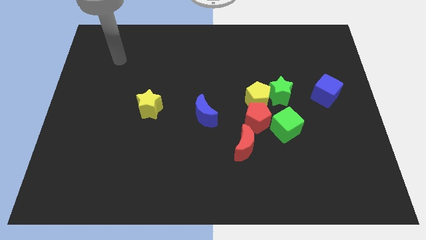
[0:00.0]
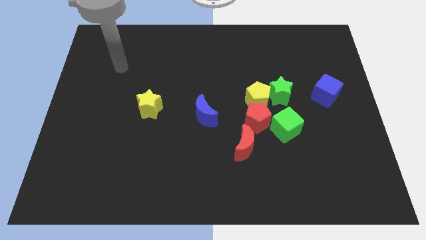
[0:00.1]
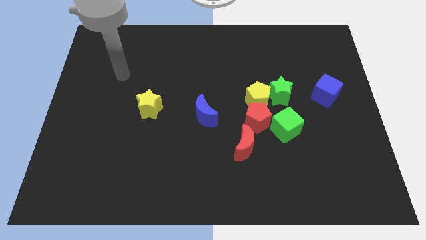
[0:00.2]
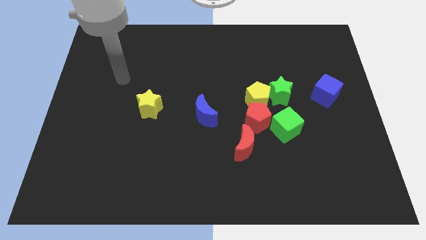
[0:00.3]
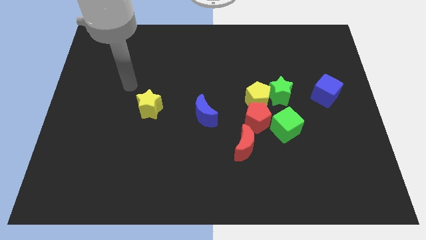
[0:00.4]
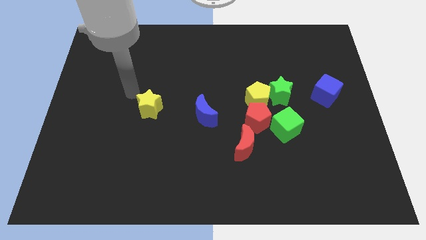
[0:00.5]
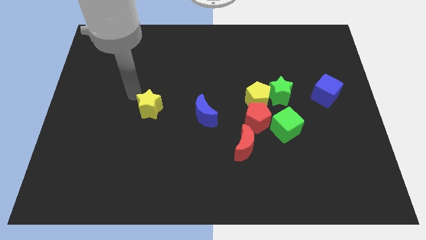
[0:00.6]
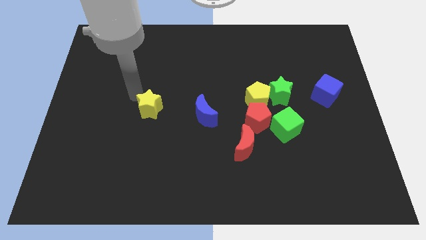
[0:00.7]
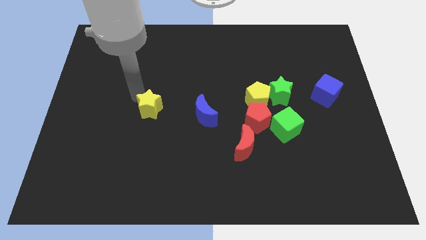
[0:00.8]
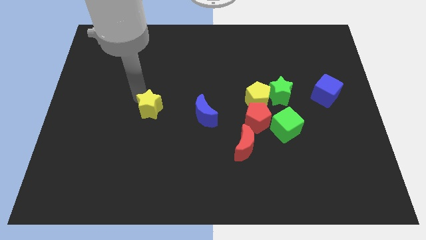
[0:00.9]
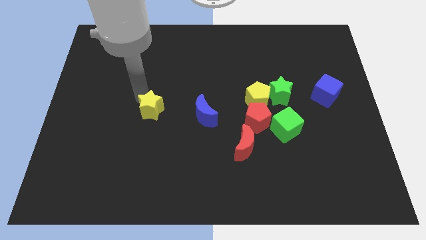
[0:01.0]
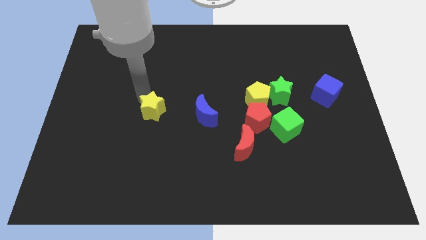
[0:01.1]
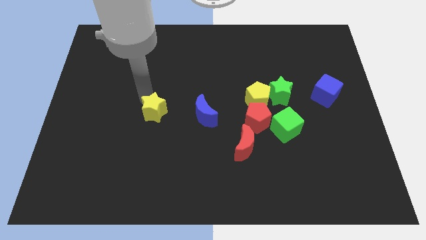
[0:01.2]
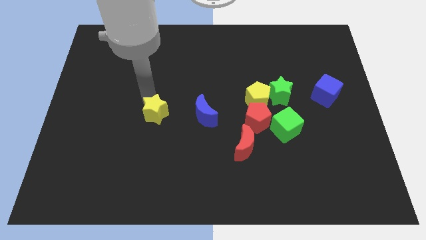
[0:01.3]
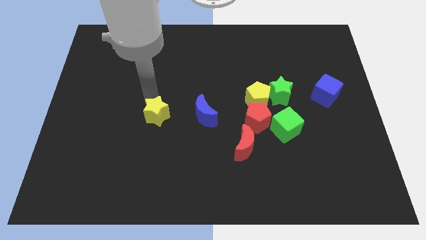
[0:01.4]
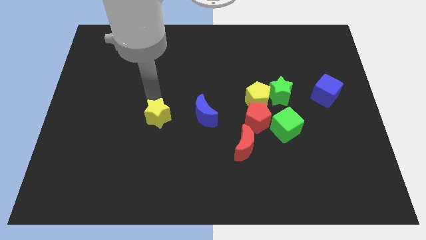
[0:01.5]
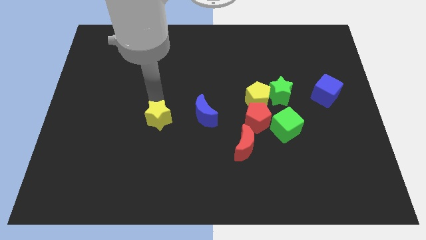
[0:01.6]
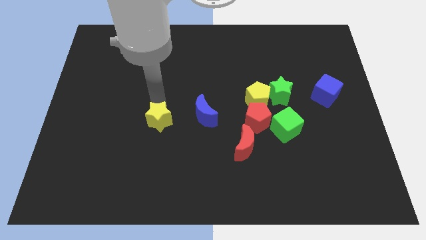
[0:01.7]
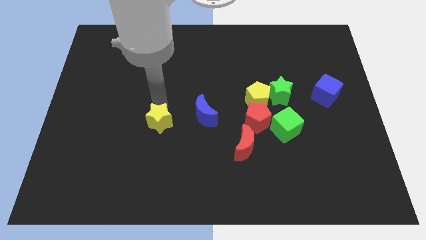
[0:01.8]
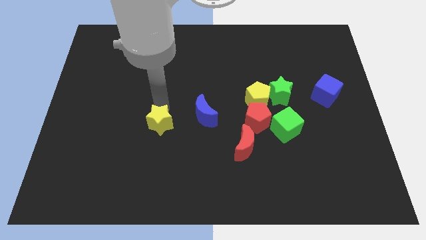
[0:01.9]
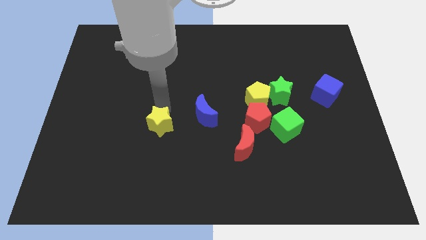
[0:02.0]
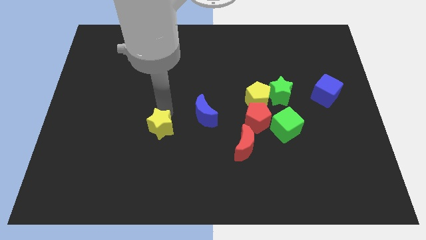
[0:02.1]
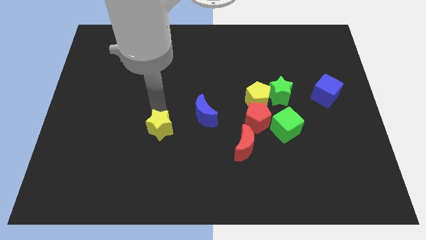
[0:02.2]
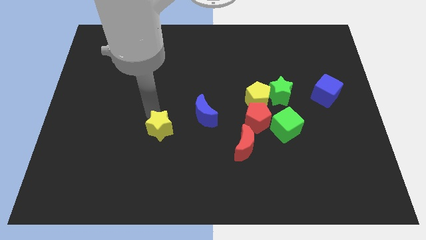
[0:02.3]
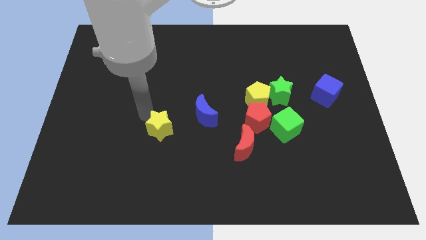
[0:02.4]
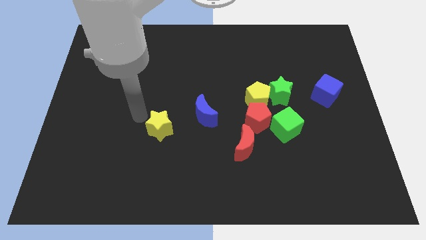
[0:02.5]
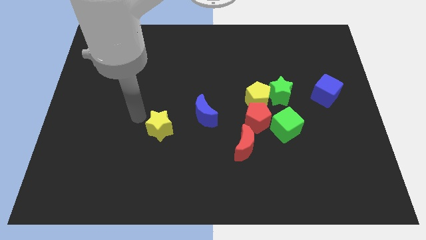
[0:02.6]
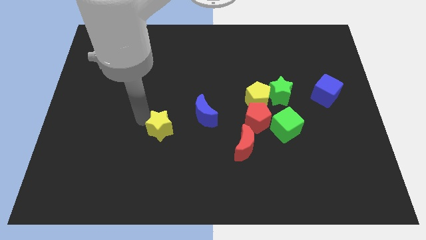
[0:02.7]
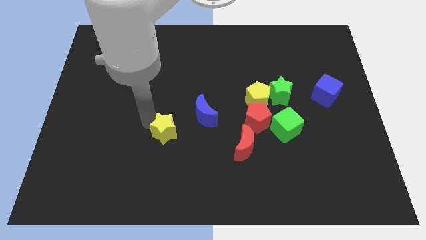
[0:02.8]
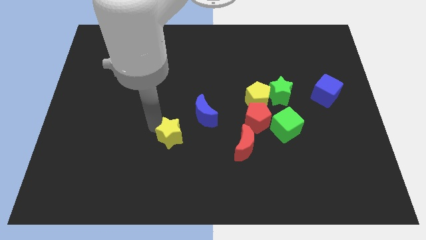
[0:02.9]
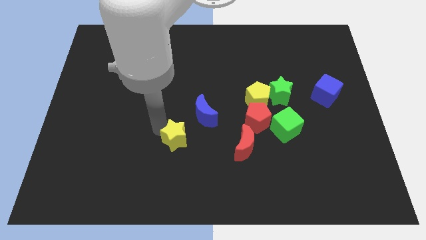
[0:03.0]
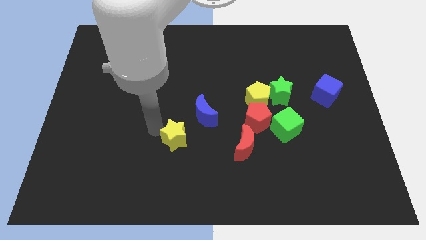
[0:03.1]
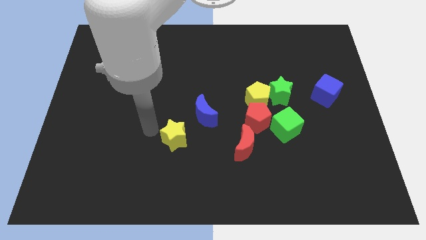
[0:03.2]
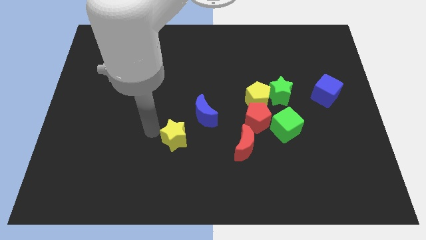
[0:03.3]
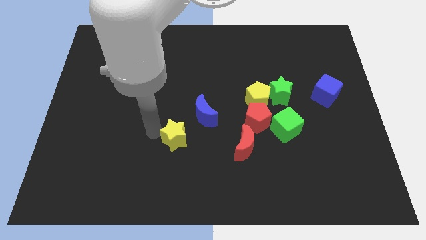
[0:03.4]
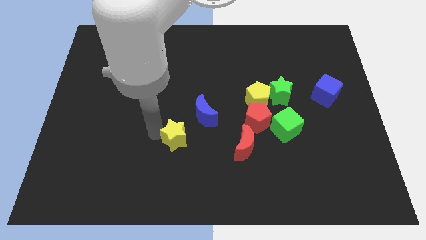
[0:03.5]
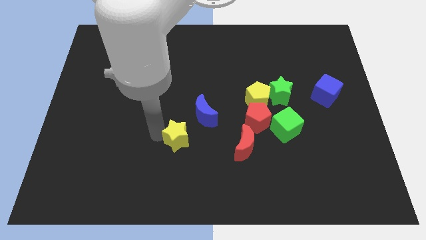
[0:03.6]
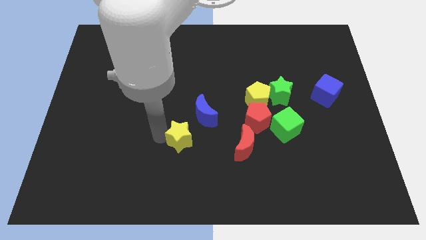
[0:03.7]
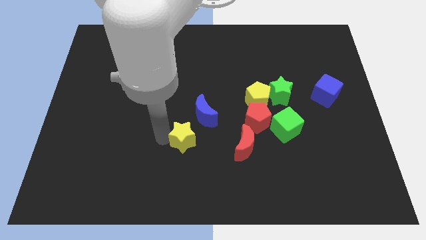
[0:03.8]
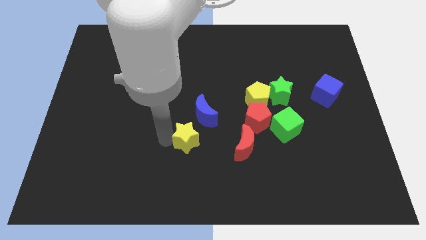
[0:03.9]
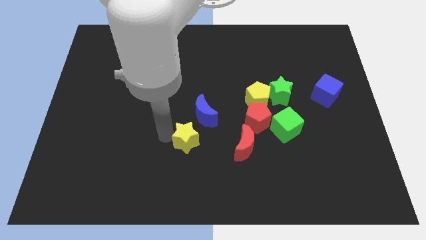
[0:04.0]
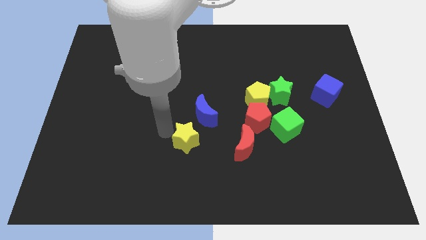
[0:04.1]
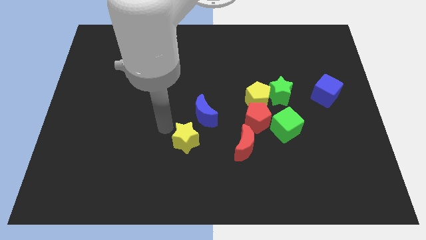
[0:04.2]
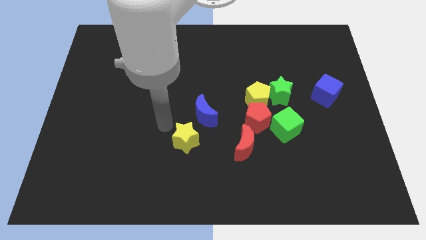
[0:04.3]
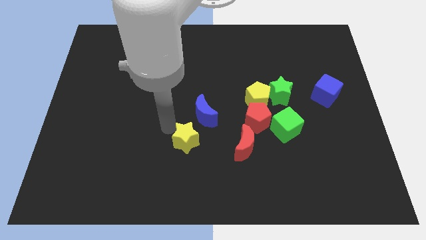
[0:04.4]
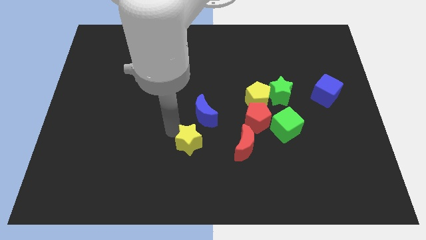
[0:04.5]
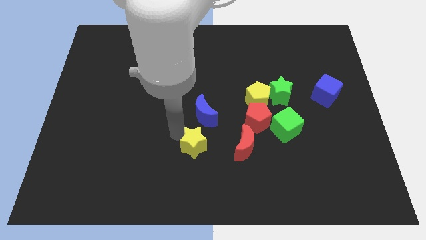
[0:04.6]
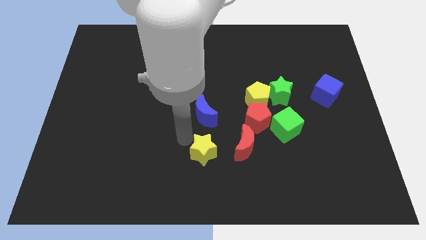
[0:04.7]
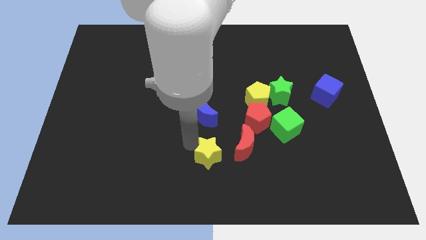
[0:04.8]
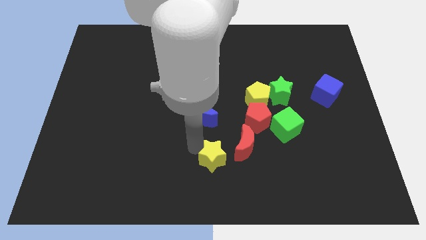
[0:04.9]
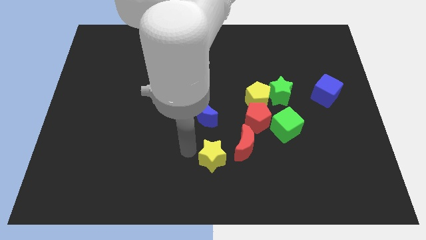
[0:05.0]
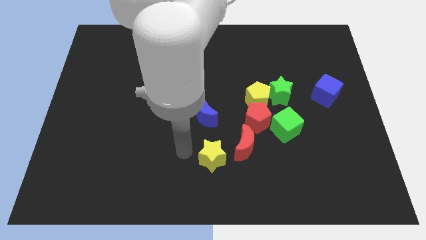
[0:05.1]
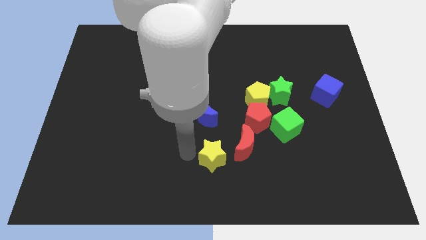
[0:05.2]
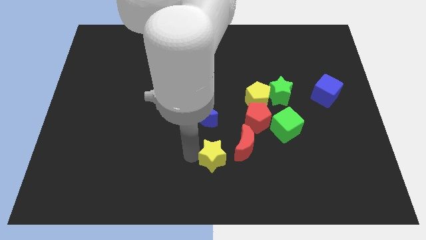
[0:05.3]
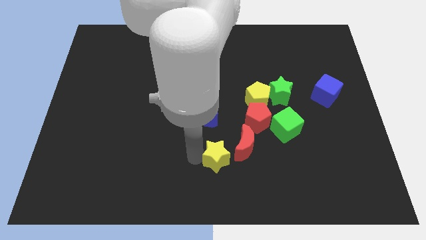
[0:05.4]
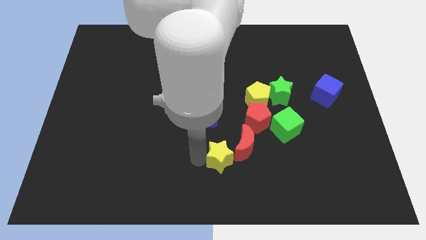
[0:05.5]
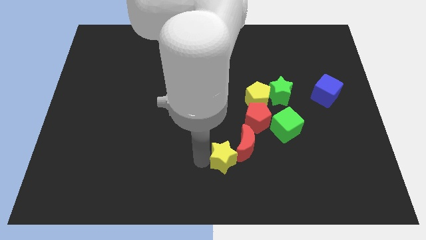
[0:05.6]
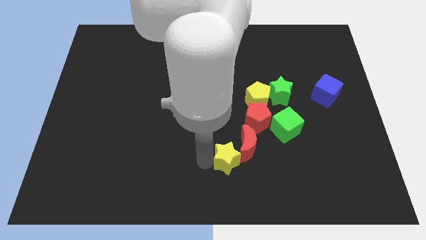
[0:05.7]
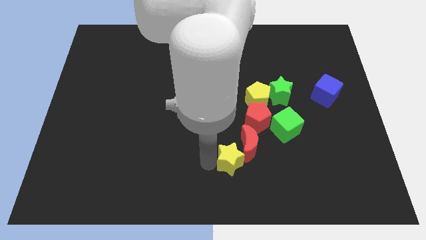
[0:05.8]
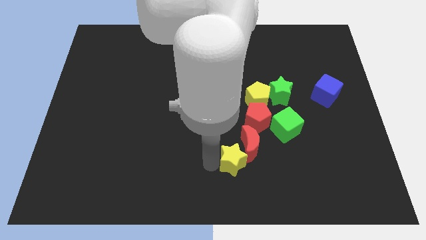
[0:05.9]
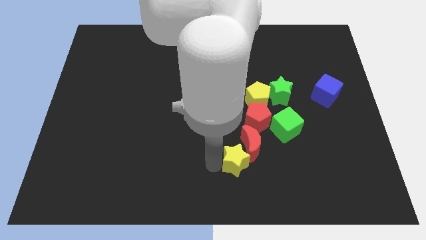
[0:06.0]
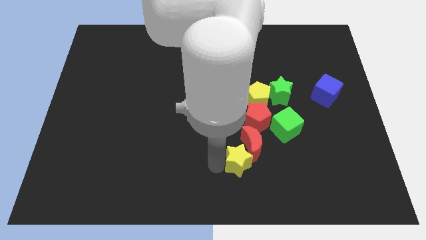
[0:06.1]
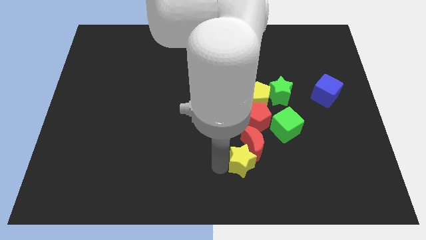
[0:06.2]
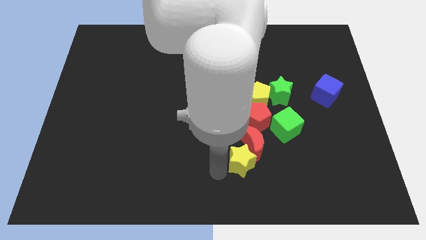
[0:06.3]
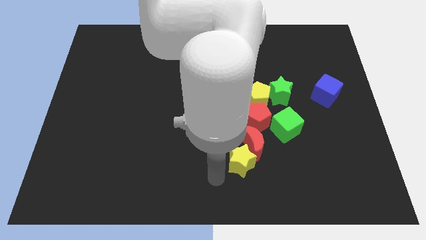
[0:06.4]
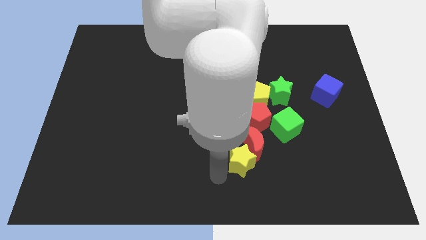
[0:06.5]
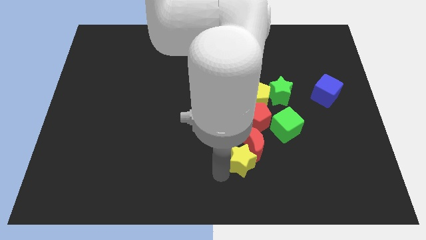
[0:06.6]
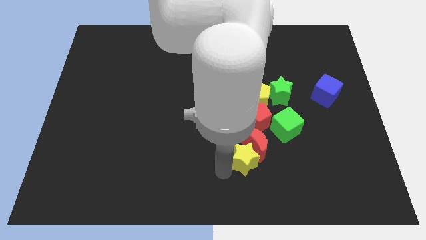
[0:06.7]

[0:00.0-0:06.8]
push the yellow star diagonally down and to the left of the green cube

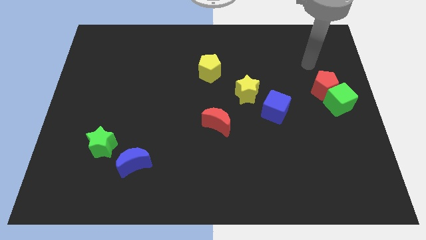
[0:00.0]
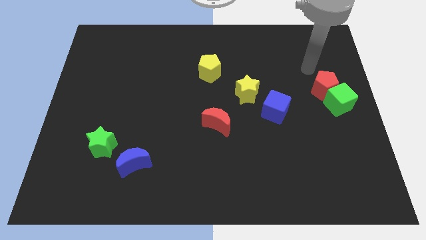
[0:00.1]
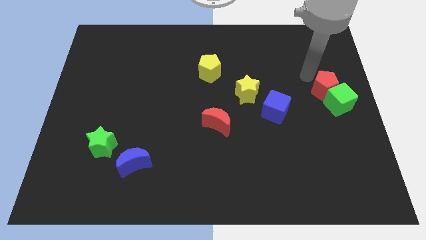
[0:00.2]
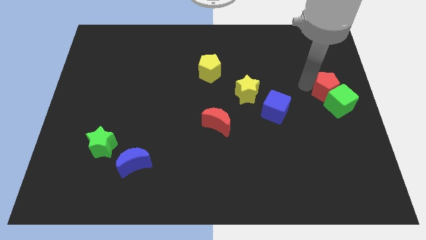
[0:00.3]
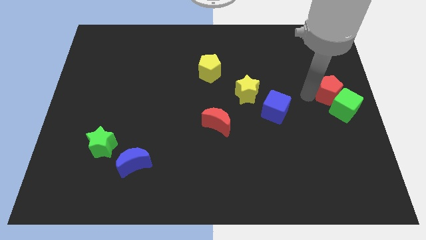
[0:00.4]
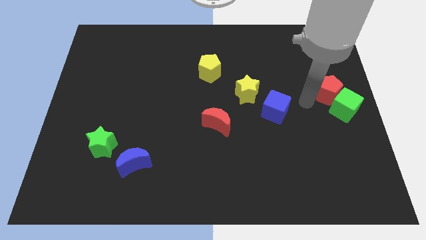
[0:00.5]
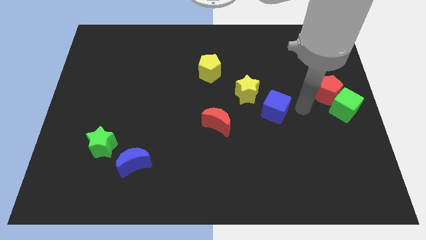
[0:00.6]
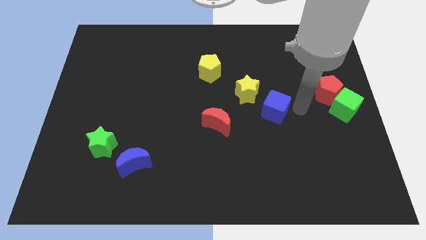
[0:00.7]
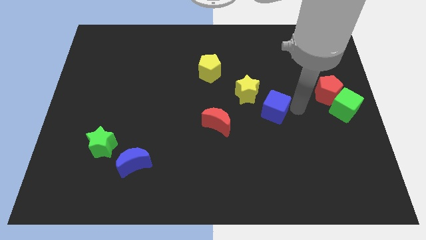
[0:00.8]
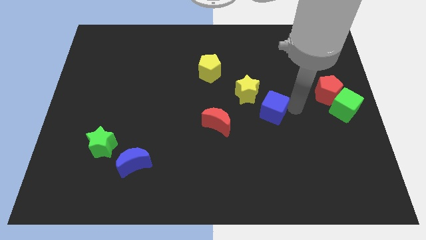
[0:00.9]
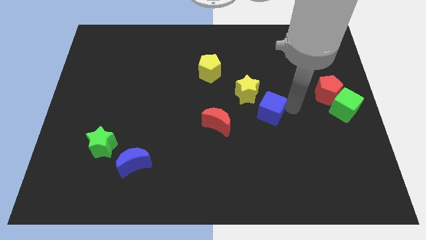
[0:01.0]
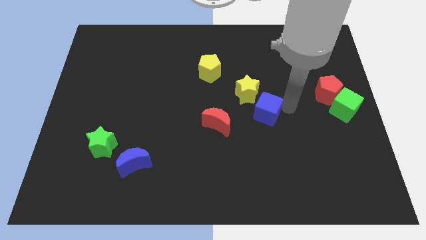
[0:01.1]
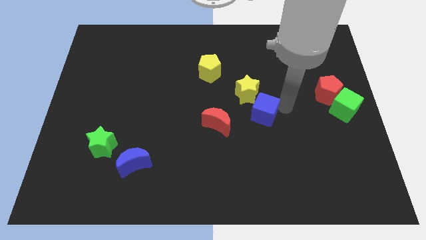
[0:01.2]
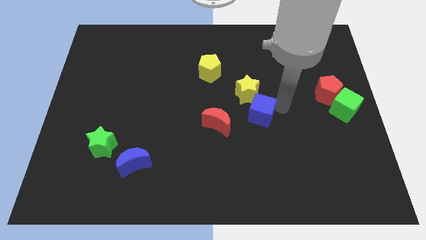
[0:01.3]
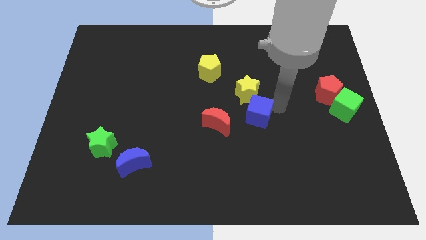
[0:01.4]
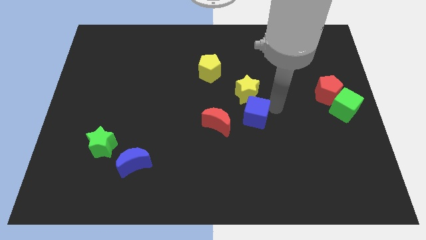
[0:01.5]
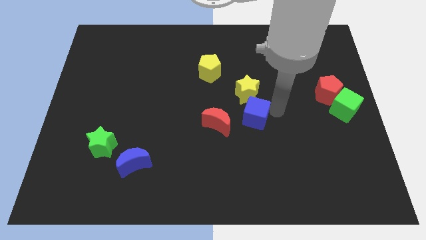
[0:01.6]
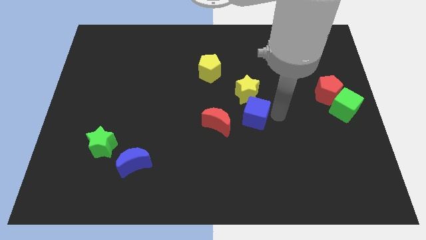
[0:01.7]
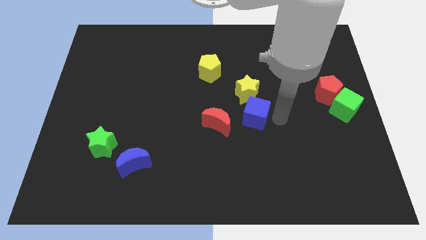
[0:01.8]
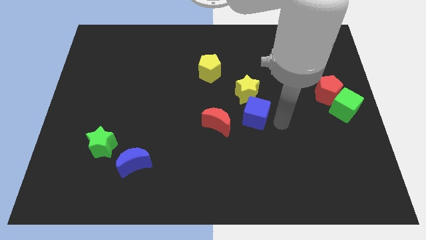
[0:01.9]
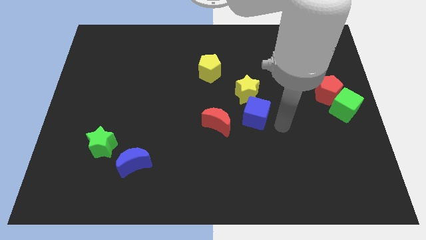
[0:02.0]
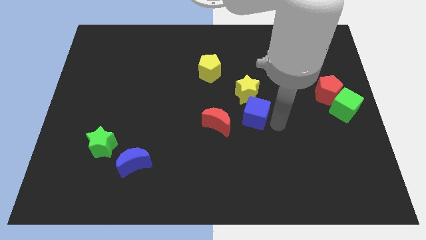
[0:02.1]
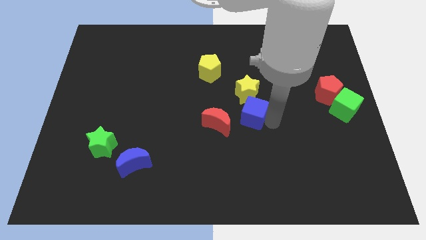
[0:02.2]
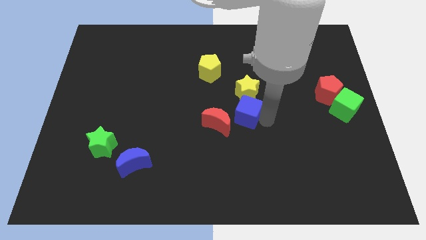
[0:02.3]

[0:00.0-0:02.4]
push the blue cube diagonally down and to the left of the yellow star
